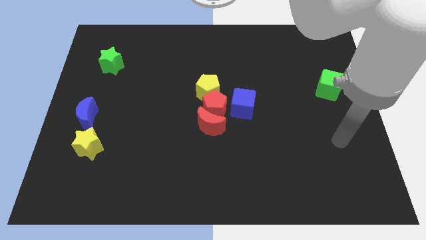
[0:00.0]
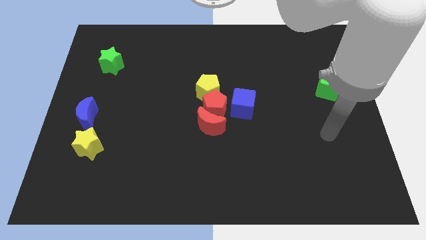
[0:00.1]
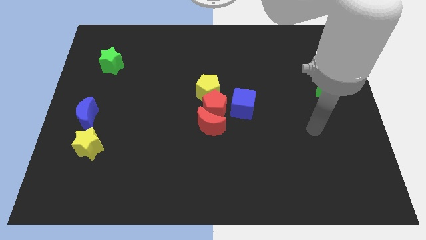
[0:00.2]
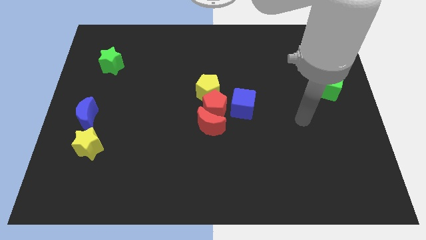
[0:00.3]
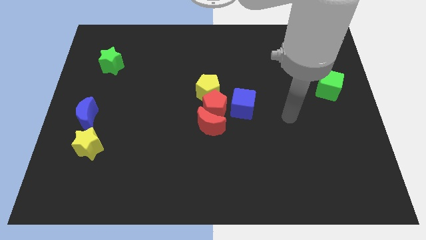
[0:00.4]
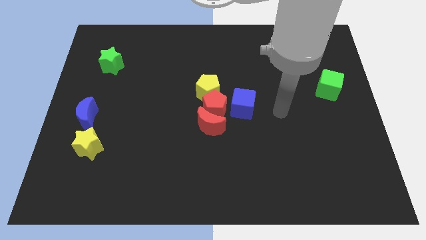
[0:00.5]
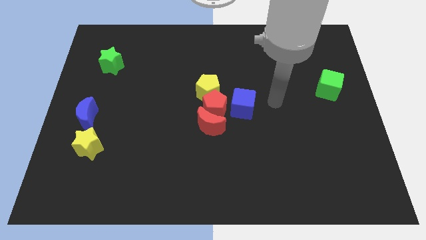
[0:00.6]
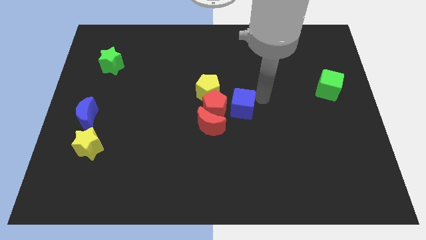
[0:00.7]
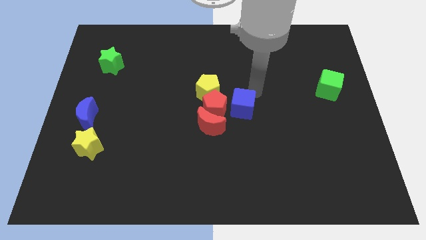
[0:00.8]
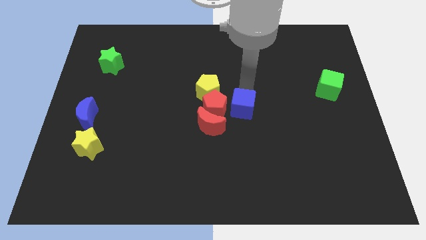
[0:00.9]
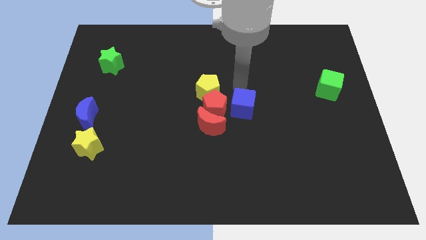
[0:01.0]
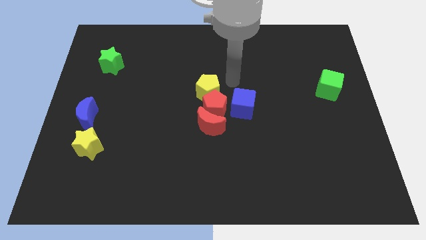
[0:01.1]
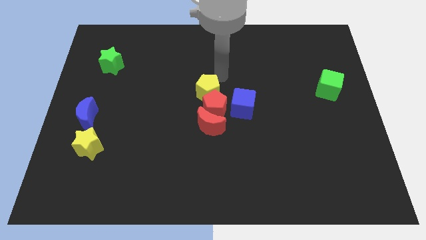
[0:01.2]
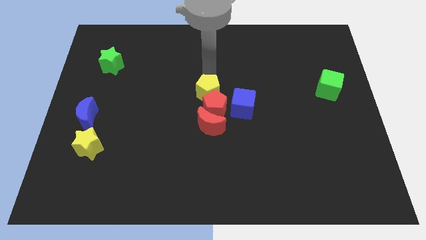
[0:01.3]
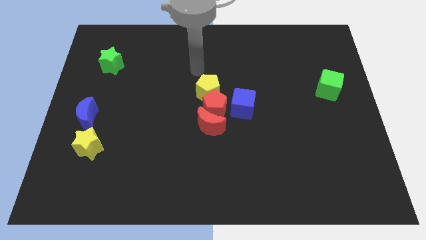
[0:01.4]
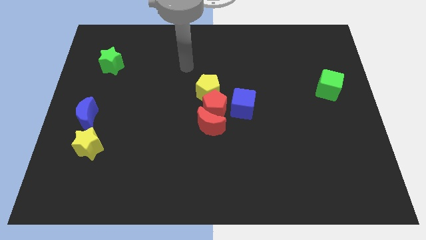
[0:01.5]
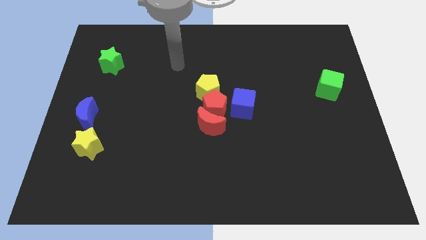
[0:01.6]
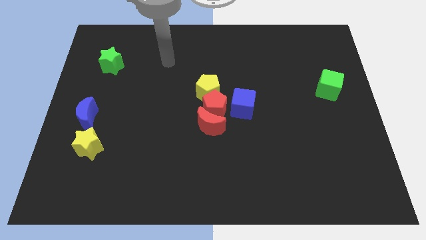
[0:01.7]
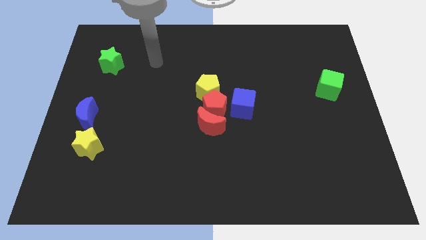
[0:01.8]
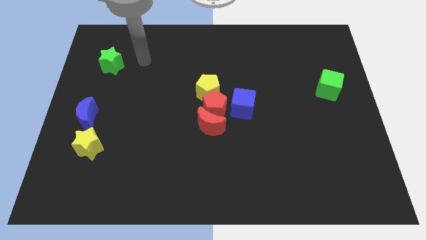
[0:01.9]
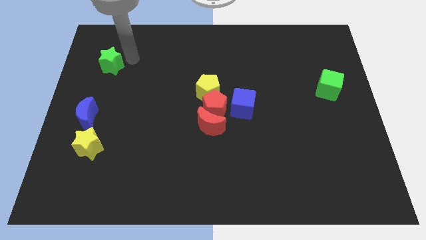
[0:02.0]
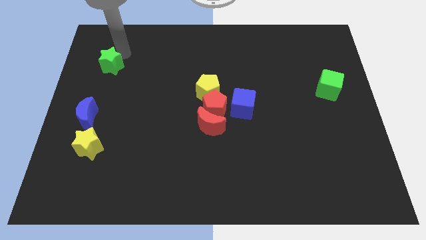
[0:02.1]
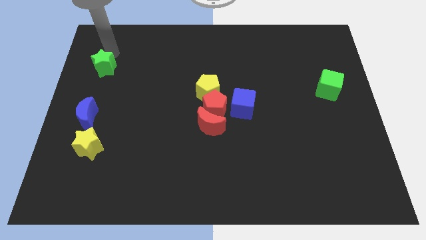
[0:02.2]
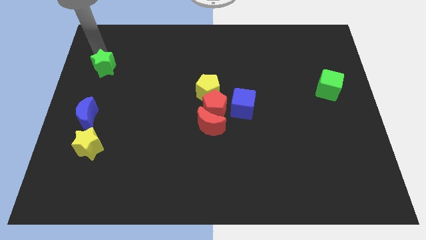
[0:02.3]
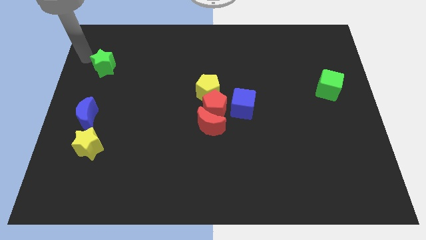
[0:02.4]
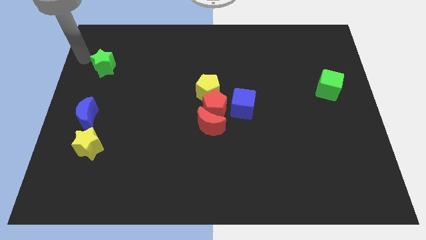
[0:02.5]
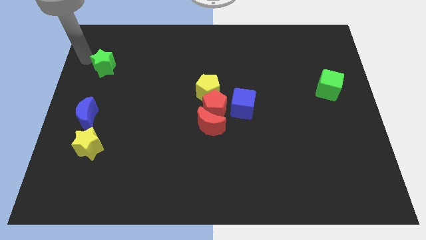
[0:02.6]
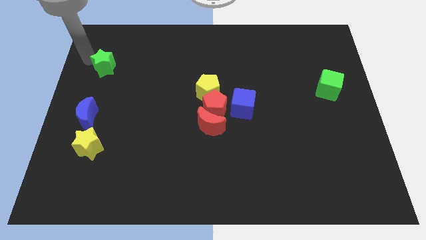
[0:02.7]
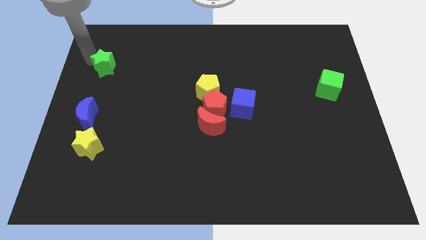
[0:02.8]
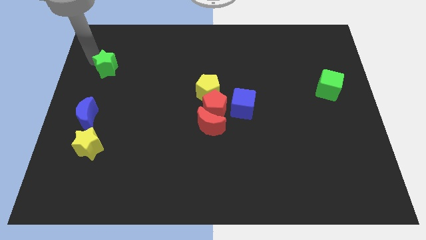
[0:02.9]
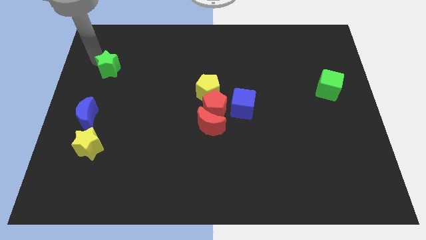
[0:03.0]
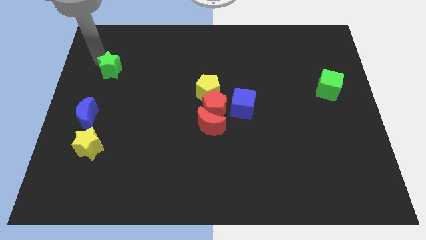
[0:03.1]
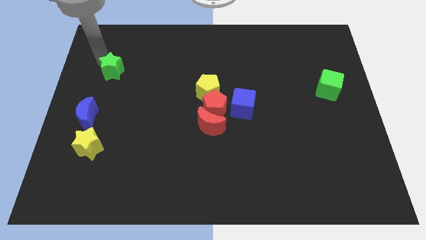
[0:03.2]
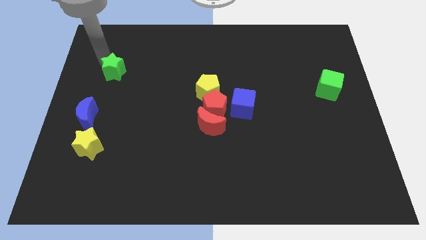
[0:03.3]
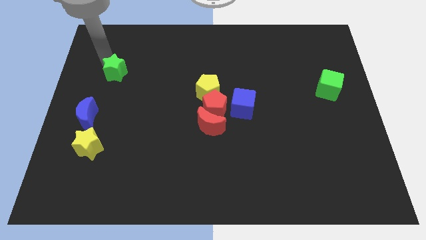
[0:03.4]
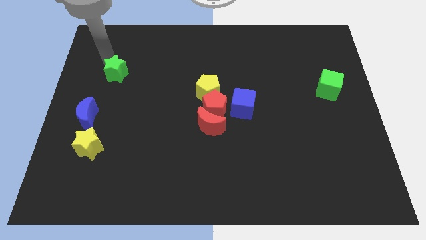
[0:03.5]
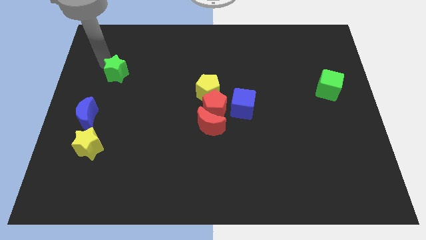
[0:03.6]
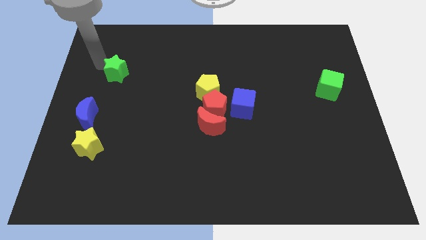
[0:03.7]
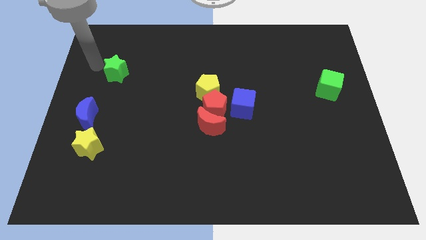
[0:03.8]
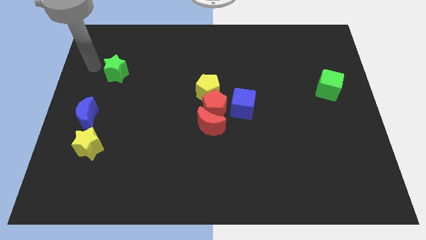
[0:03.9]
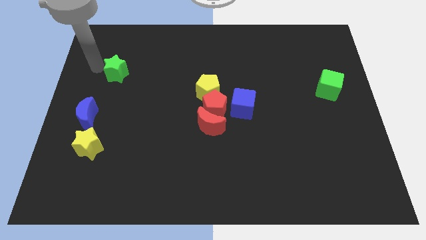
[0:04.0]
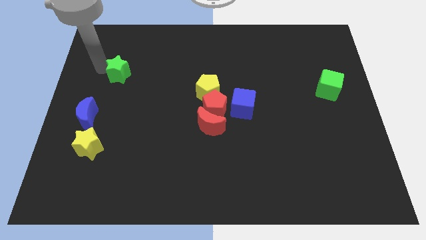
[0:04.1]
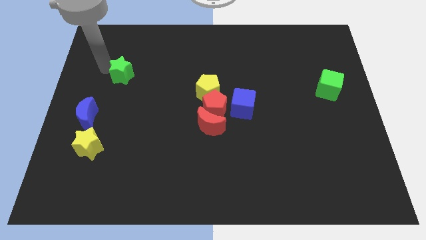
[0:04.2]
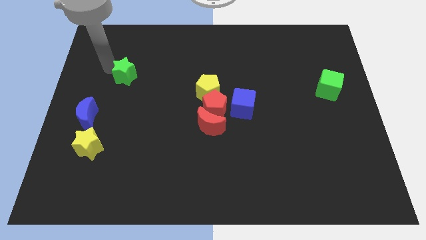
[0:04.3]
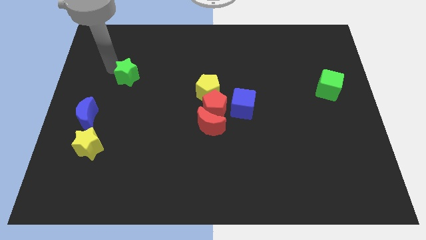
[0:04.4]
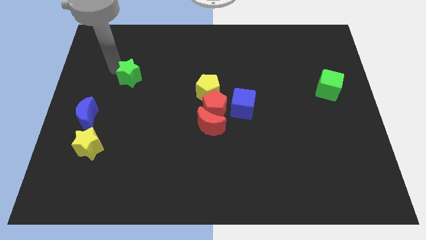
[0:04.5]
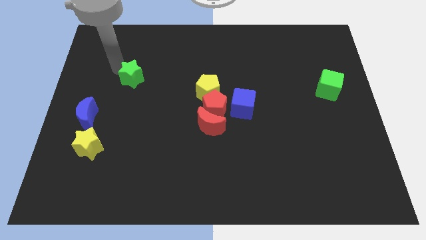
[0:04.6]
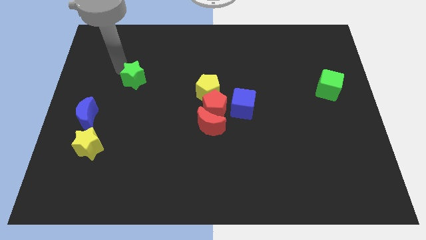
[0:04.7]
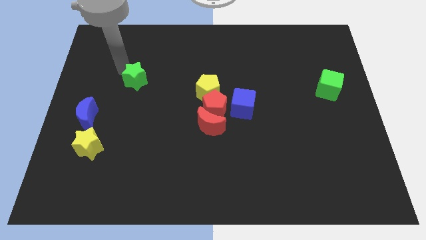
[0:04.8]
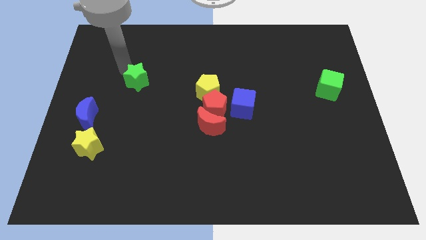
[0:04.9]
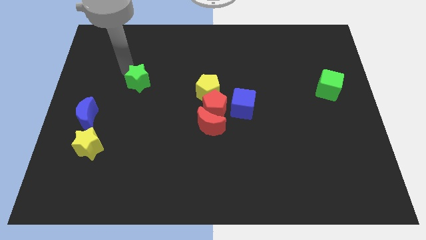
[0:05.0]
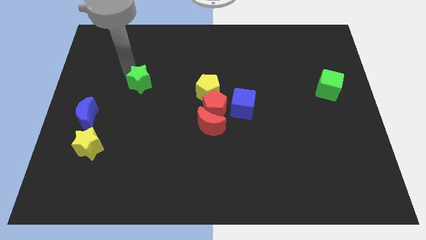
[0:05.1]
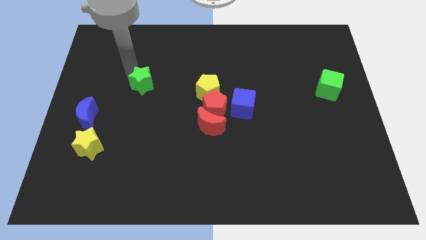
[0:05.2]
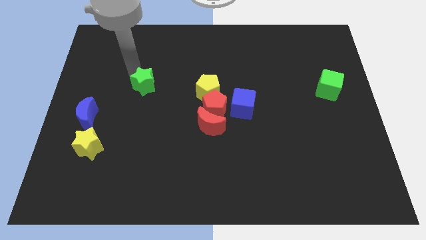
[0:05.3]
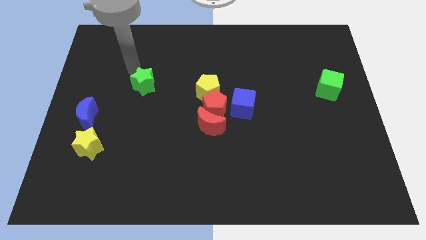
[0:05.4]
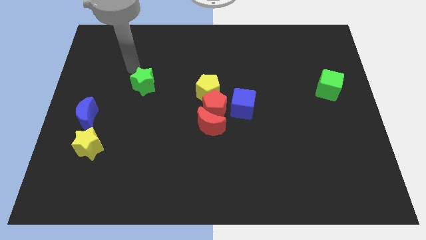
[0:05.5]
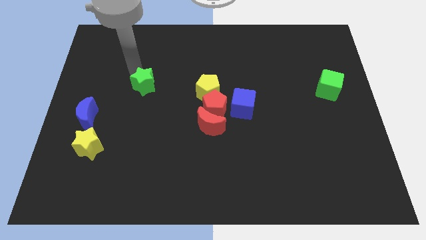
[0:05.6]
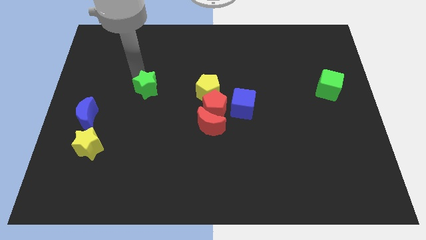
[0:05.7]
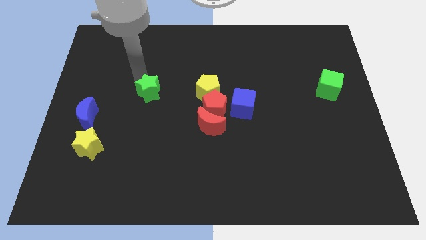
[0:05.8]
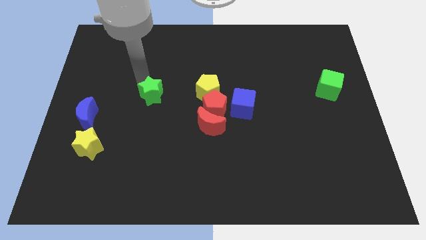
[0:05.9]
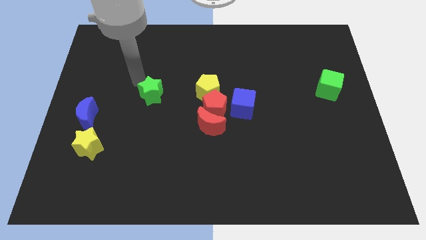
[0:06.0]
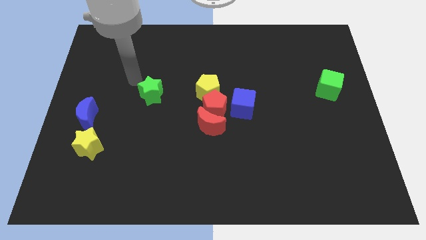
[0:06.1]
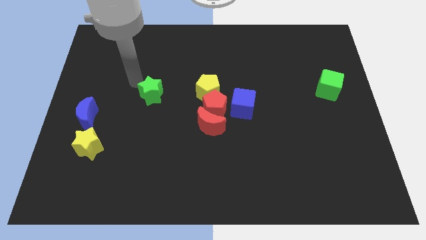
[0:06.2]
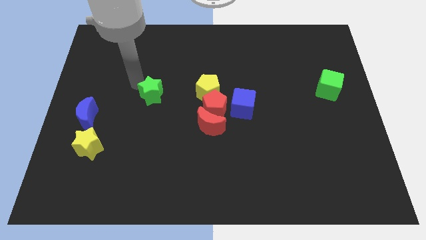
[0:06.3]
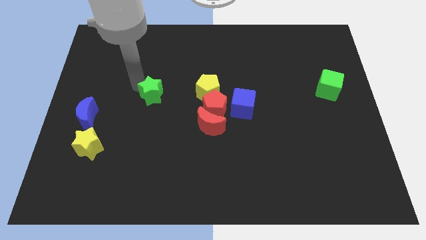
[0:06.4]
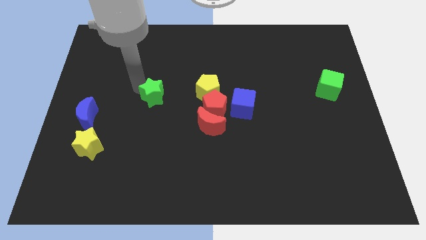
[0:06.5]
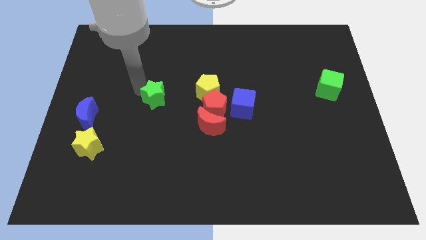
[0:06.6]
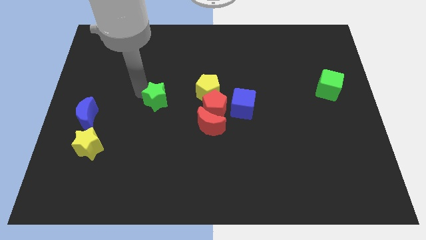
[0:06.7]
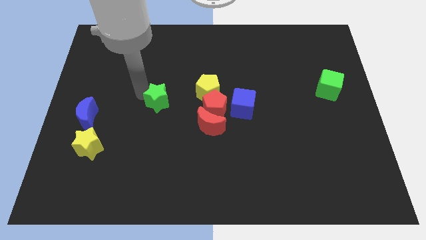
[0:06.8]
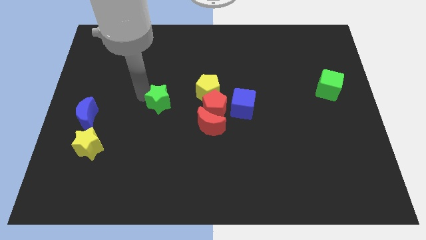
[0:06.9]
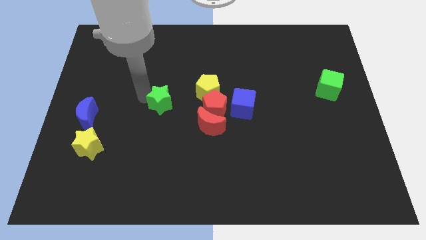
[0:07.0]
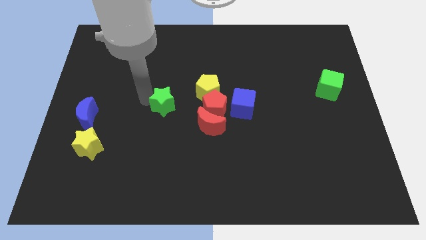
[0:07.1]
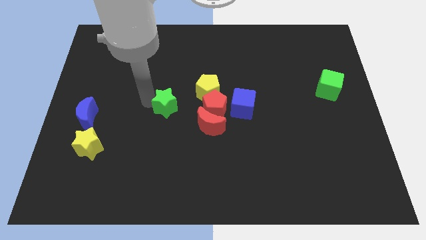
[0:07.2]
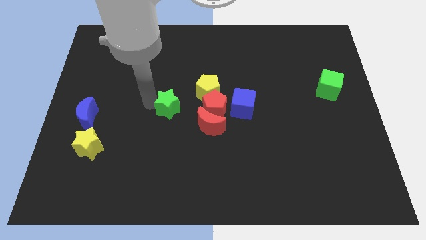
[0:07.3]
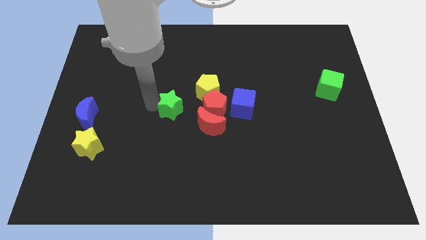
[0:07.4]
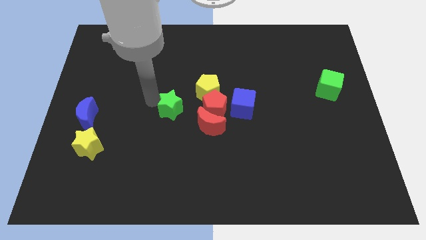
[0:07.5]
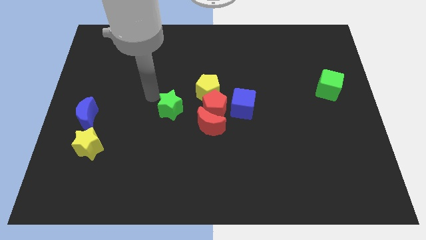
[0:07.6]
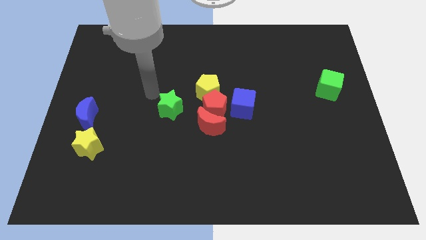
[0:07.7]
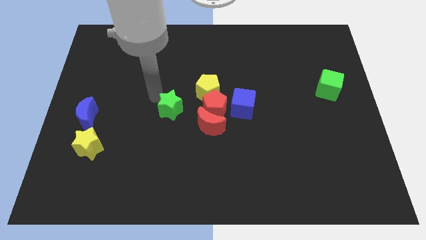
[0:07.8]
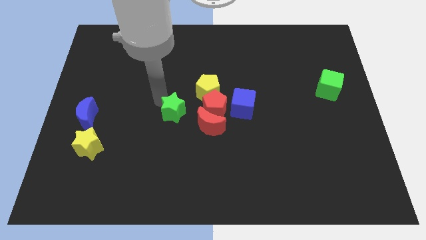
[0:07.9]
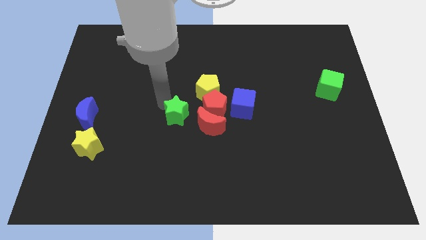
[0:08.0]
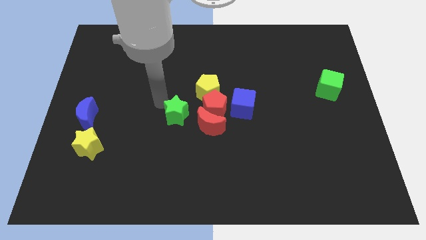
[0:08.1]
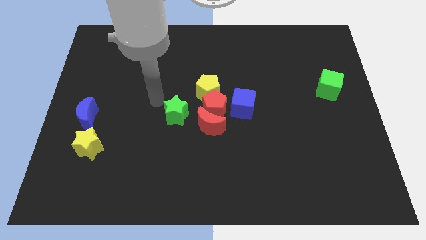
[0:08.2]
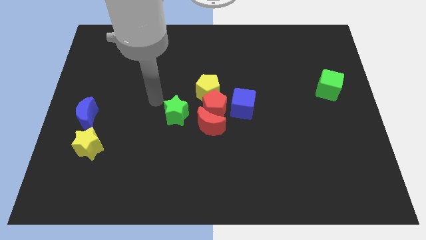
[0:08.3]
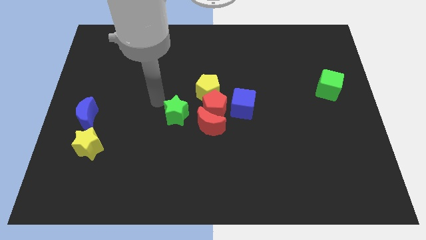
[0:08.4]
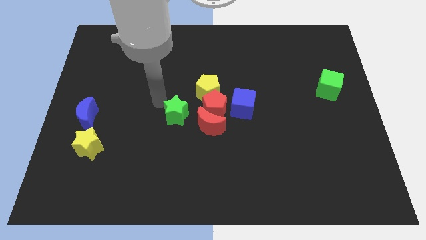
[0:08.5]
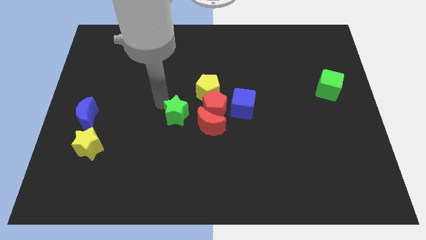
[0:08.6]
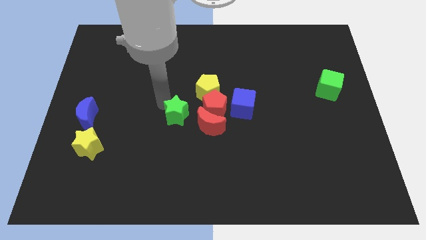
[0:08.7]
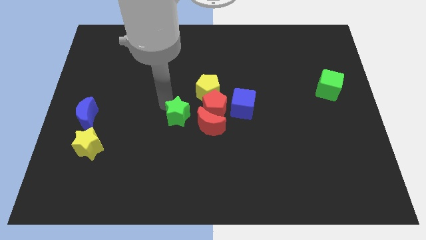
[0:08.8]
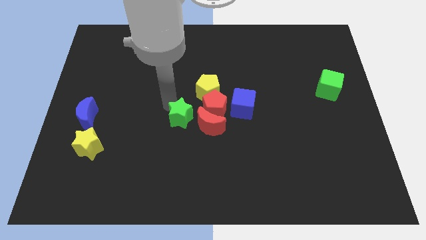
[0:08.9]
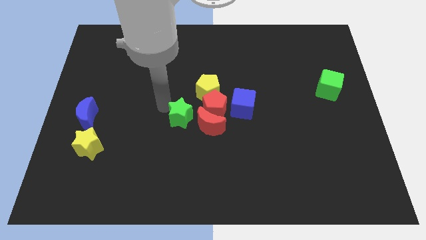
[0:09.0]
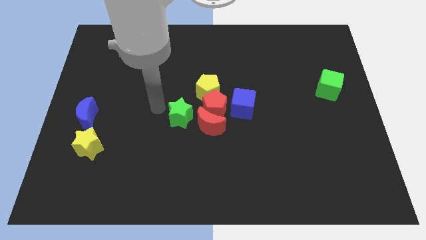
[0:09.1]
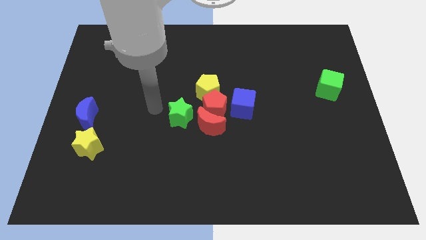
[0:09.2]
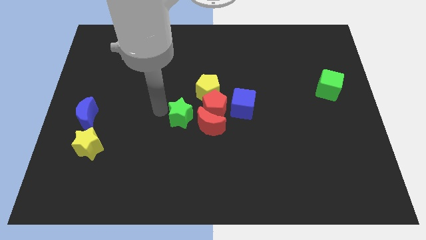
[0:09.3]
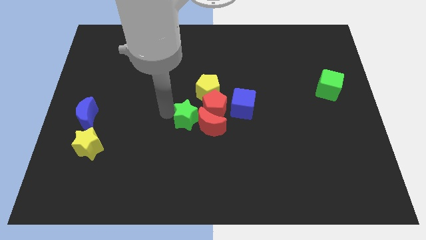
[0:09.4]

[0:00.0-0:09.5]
slide the green star close to the red moon
